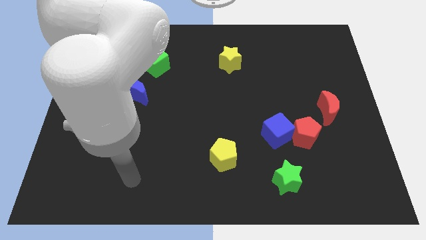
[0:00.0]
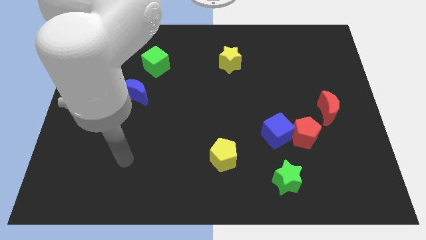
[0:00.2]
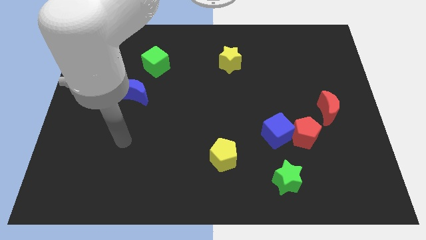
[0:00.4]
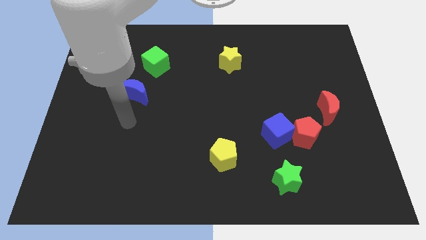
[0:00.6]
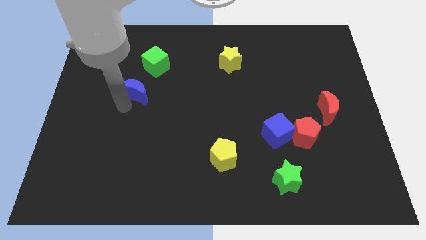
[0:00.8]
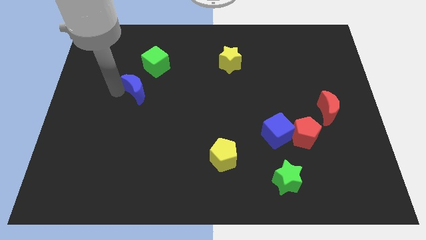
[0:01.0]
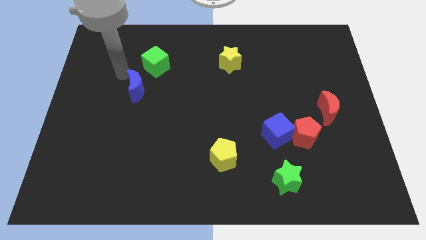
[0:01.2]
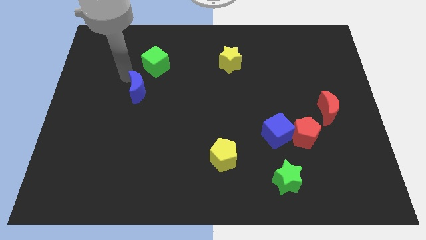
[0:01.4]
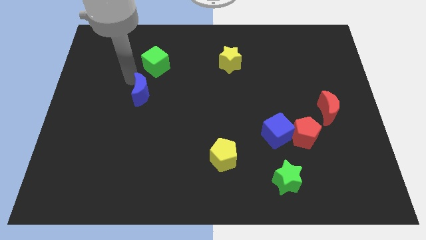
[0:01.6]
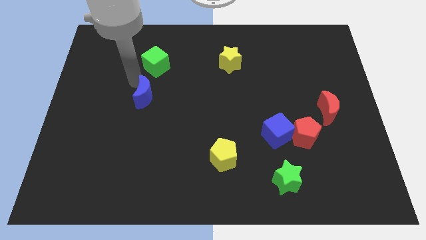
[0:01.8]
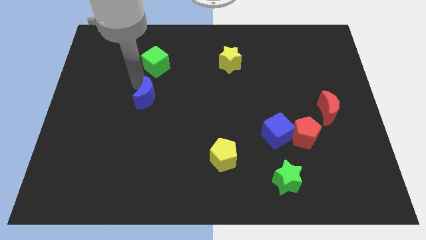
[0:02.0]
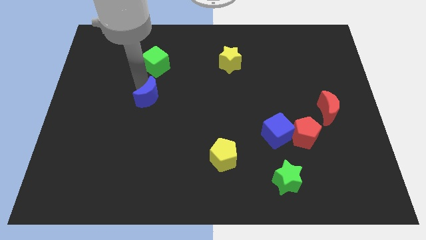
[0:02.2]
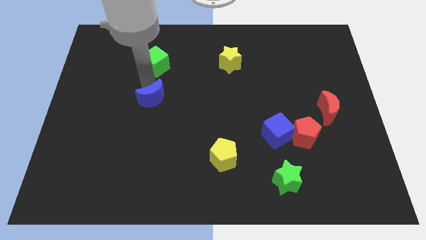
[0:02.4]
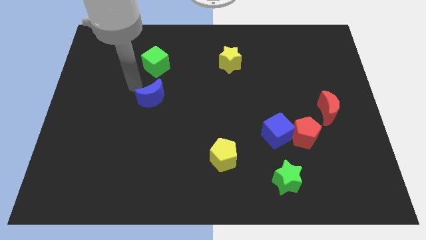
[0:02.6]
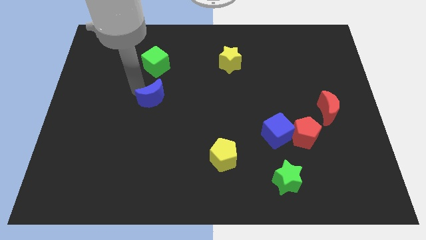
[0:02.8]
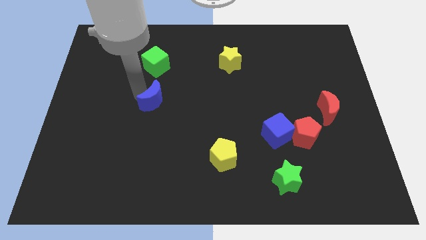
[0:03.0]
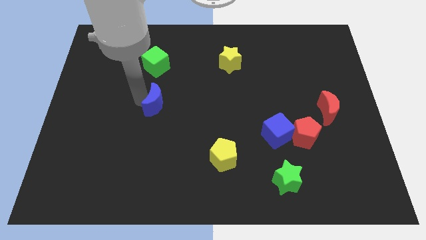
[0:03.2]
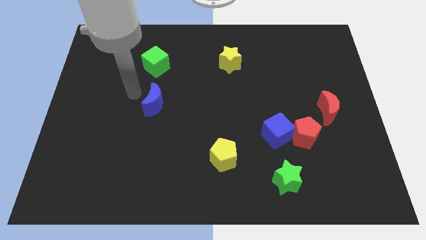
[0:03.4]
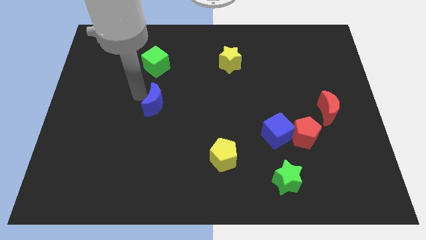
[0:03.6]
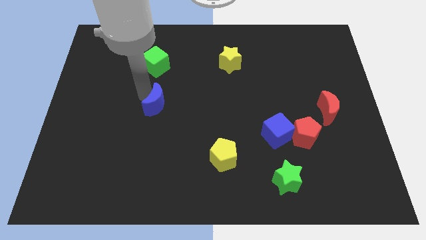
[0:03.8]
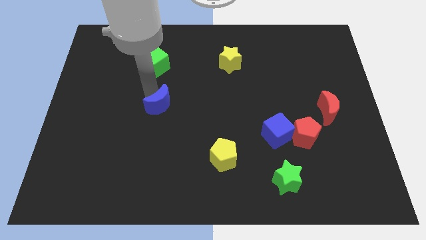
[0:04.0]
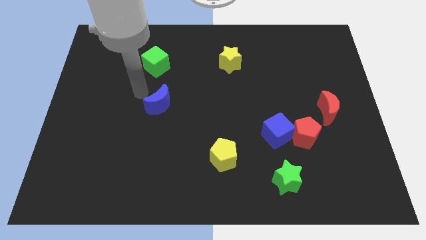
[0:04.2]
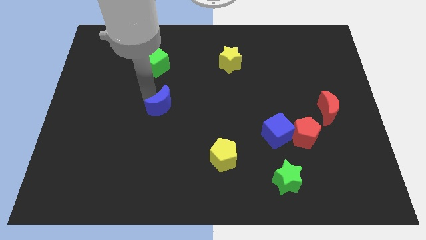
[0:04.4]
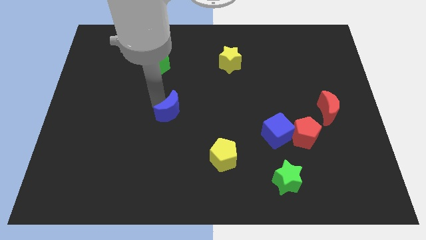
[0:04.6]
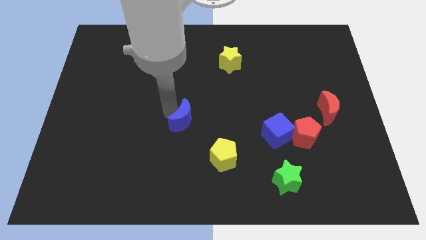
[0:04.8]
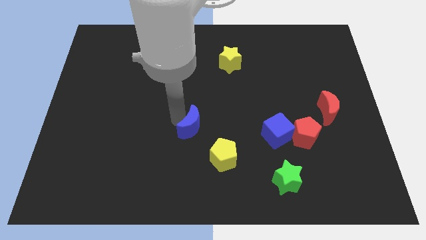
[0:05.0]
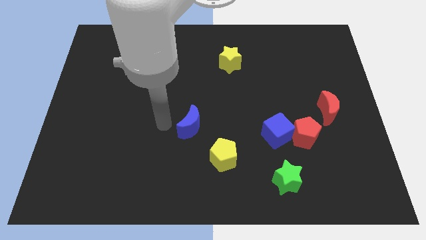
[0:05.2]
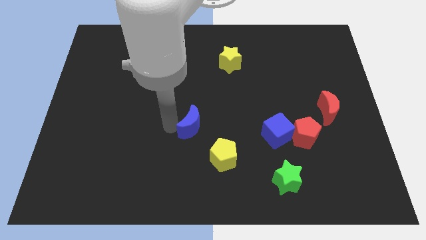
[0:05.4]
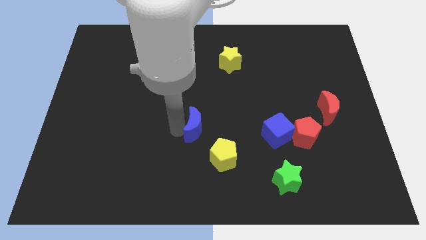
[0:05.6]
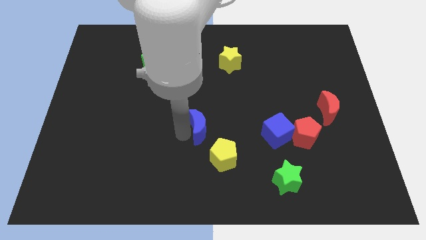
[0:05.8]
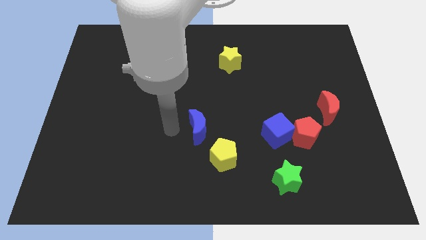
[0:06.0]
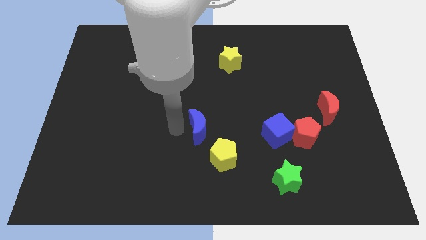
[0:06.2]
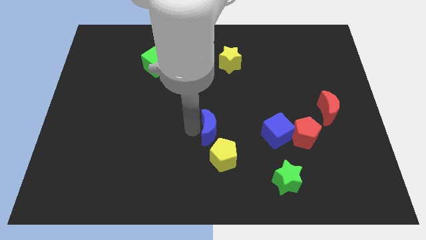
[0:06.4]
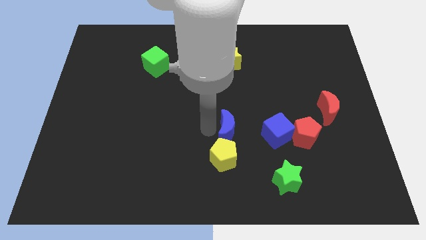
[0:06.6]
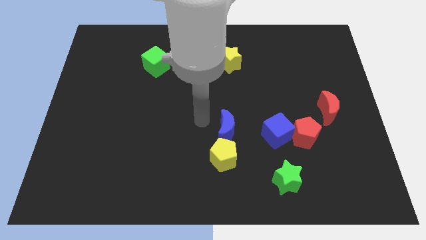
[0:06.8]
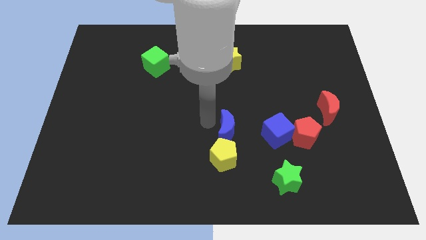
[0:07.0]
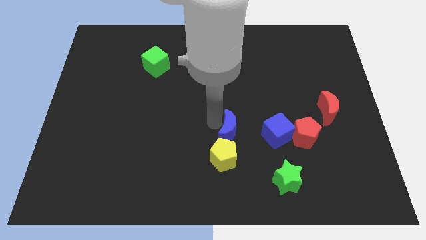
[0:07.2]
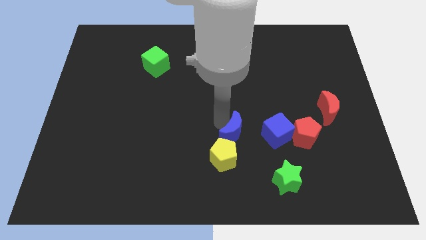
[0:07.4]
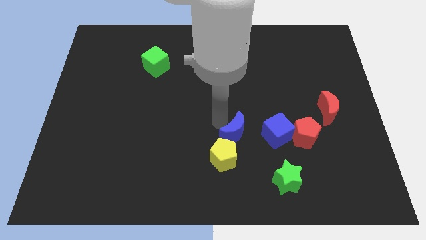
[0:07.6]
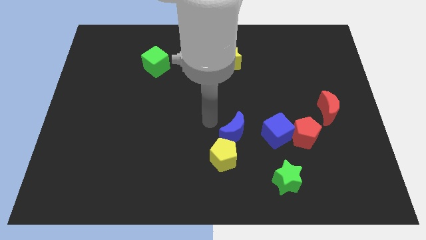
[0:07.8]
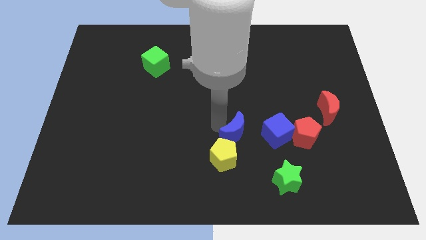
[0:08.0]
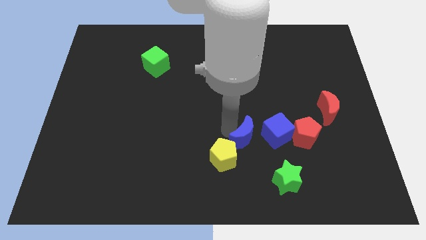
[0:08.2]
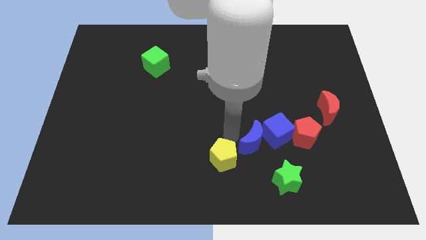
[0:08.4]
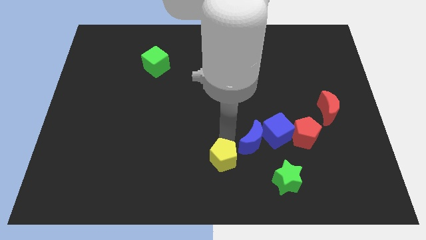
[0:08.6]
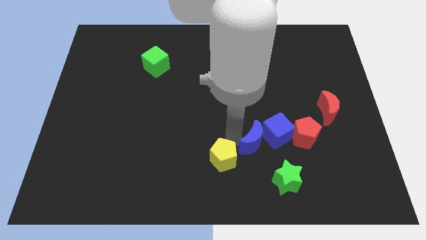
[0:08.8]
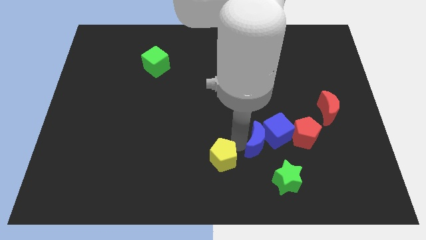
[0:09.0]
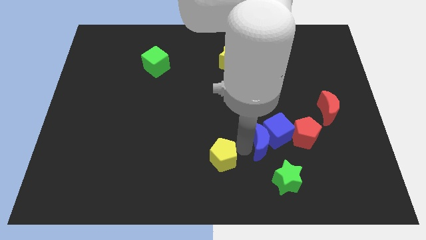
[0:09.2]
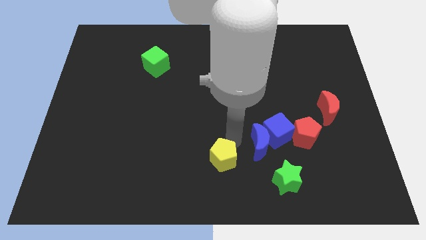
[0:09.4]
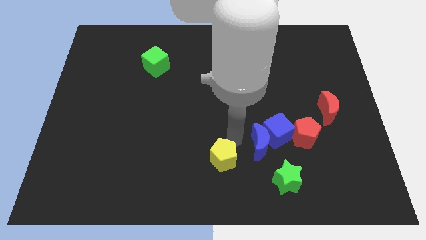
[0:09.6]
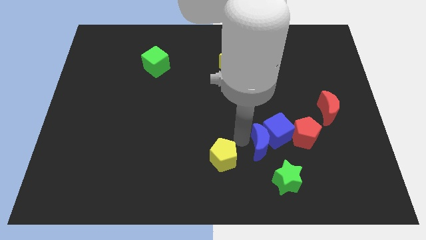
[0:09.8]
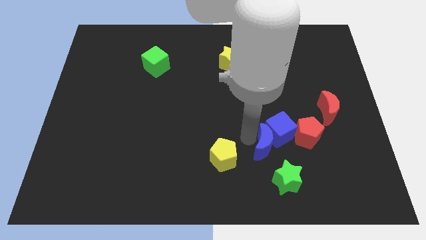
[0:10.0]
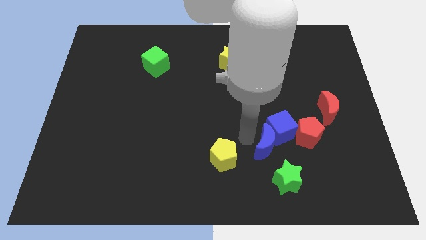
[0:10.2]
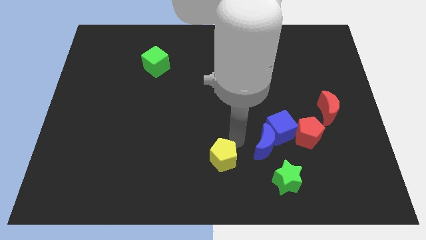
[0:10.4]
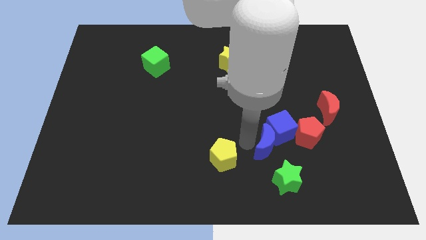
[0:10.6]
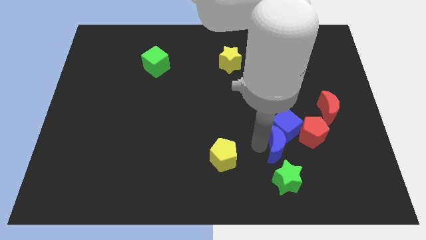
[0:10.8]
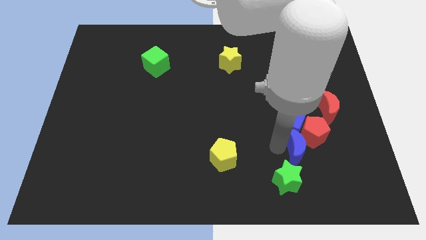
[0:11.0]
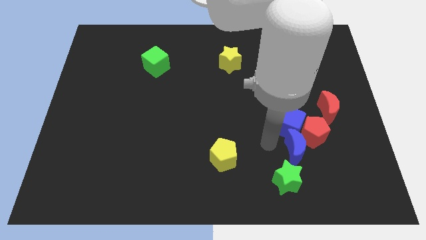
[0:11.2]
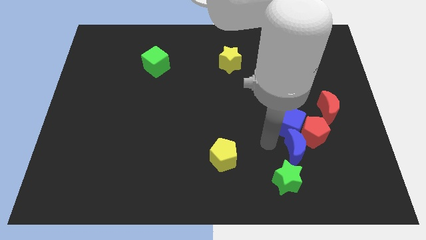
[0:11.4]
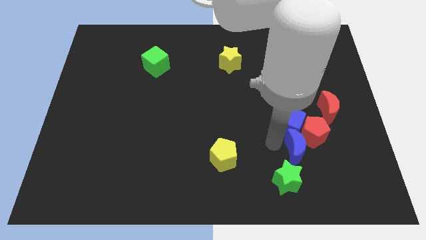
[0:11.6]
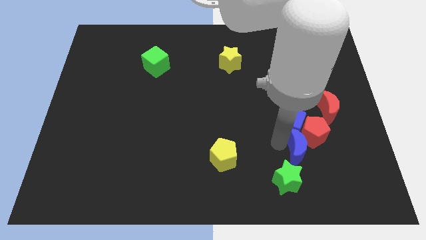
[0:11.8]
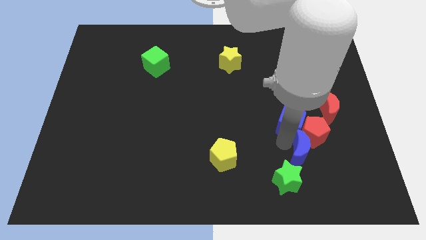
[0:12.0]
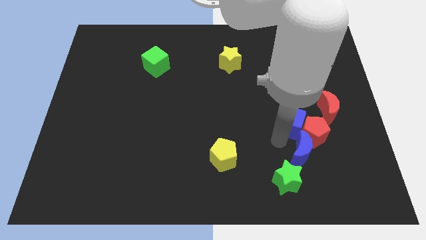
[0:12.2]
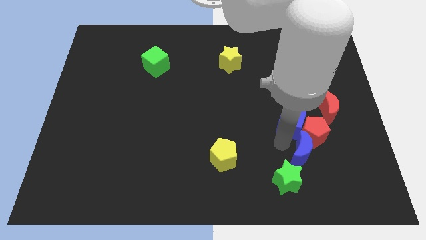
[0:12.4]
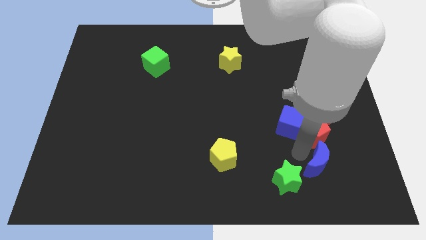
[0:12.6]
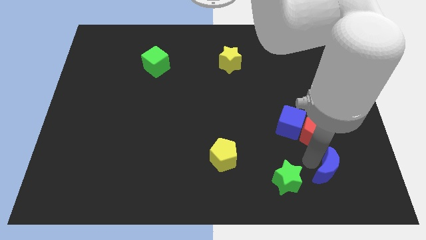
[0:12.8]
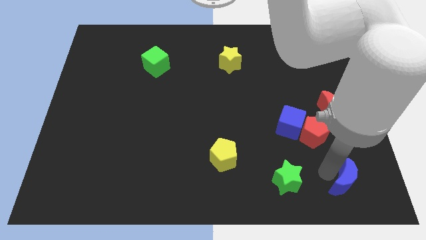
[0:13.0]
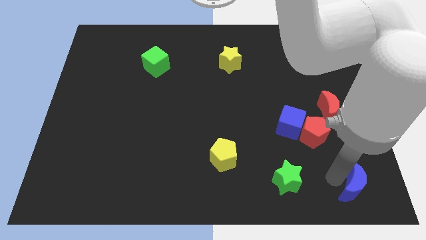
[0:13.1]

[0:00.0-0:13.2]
move the blue moon to the bottom right of the board

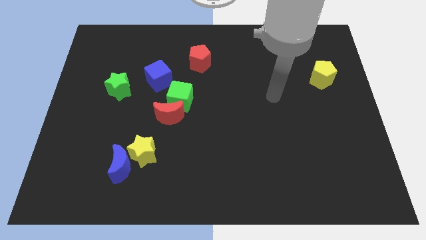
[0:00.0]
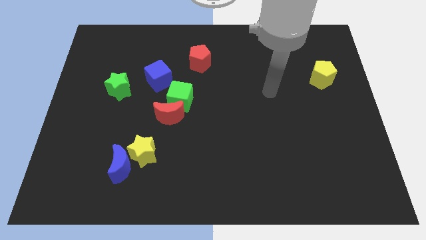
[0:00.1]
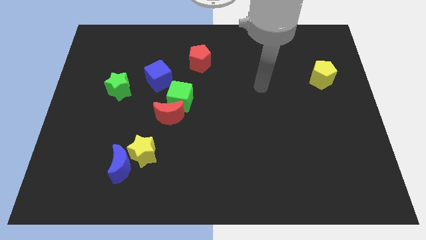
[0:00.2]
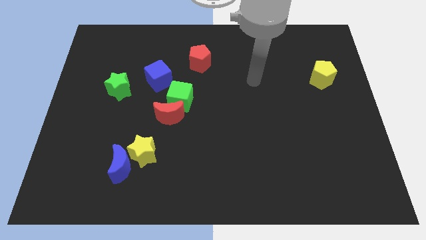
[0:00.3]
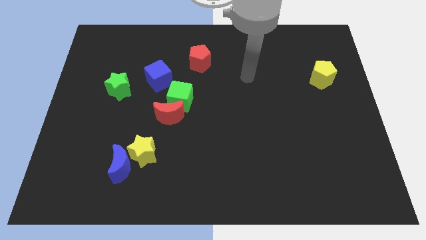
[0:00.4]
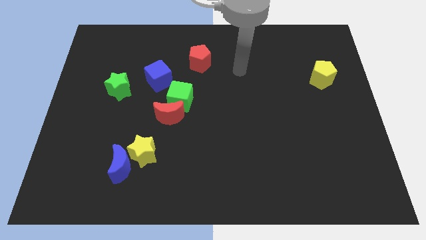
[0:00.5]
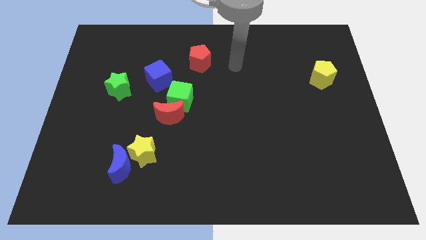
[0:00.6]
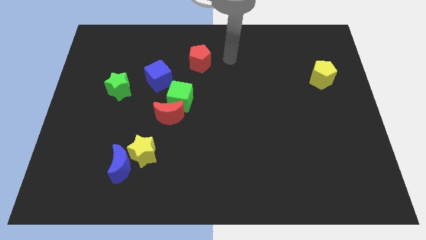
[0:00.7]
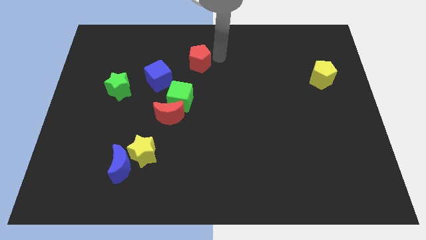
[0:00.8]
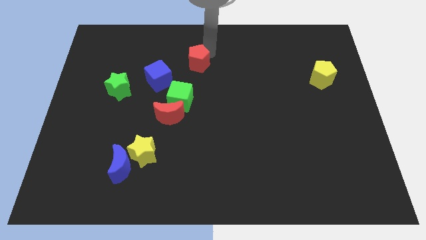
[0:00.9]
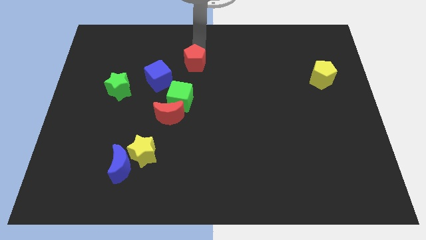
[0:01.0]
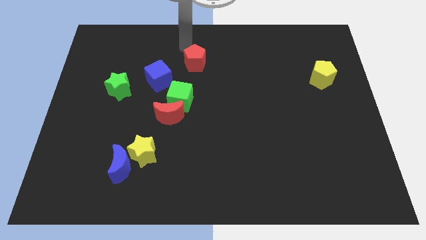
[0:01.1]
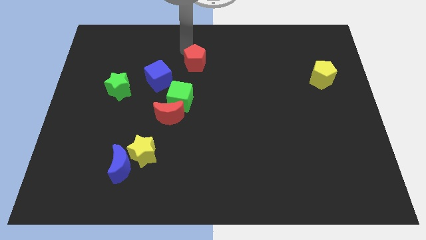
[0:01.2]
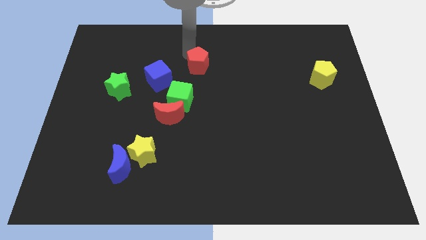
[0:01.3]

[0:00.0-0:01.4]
move the red pentagon to the center of the board
